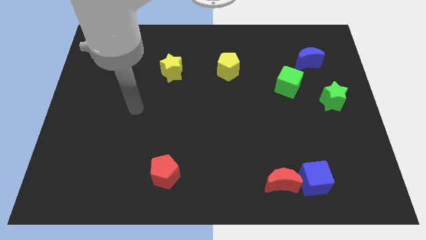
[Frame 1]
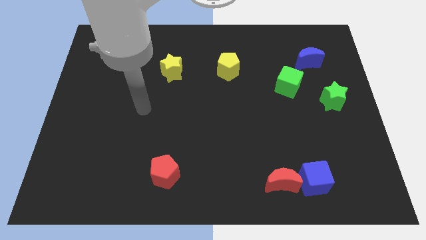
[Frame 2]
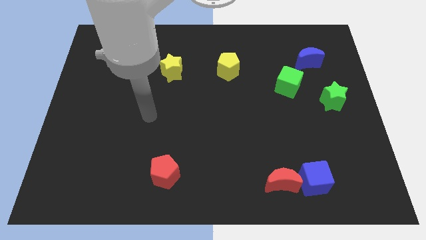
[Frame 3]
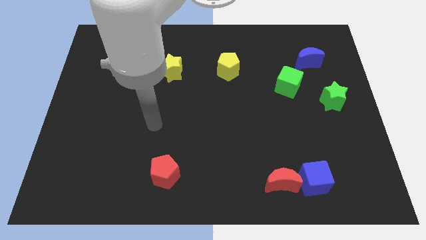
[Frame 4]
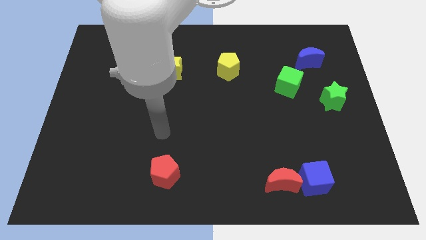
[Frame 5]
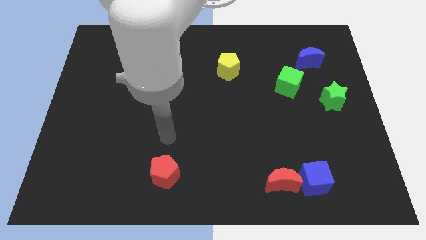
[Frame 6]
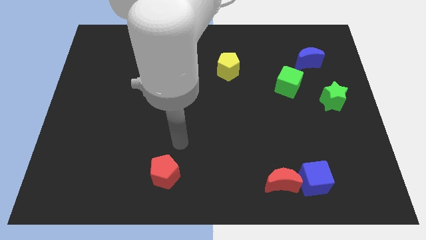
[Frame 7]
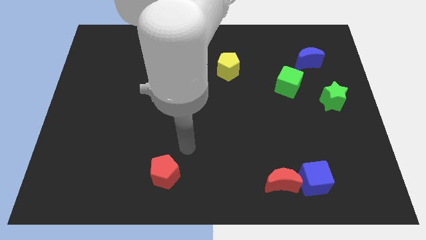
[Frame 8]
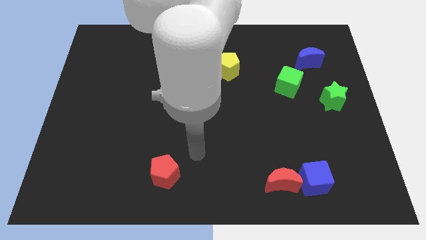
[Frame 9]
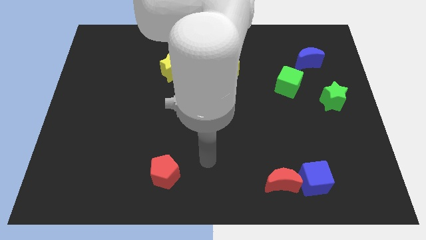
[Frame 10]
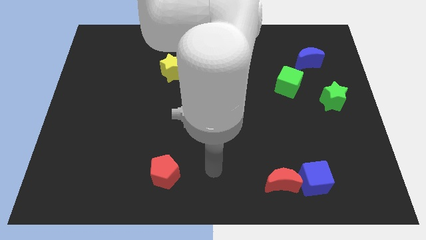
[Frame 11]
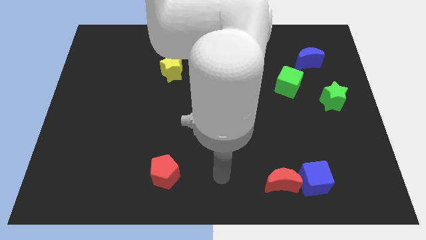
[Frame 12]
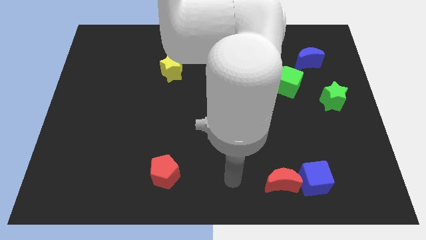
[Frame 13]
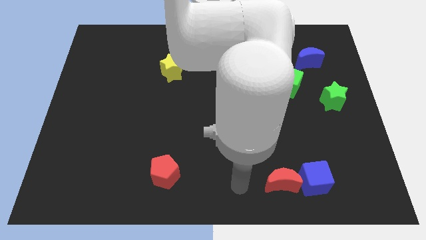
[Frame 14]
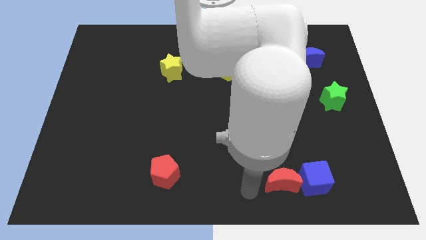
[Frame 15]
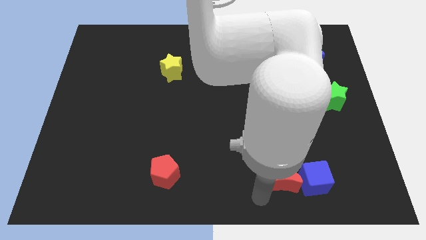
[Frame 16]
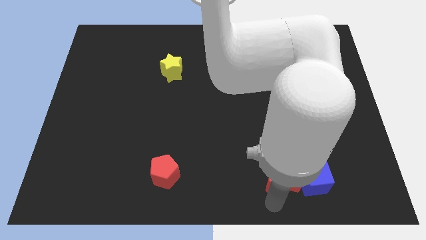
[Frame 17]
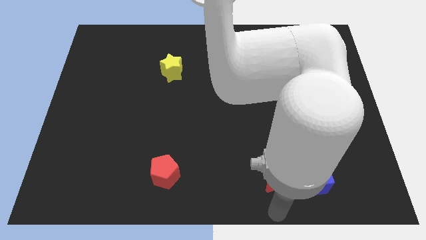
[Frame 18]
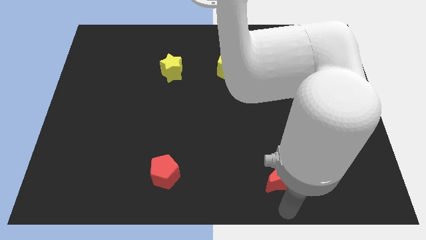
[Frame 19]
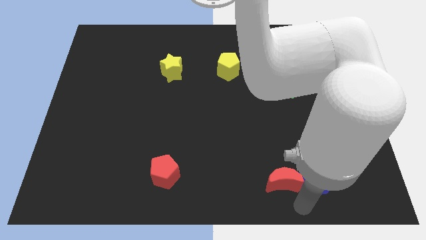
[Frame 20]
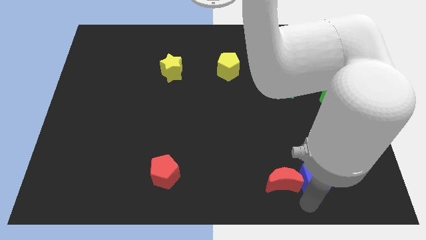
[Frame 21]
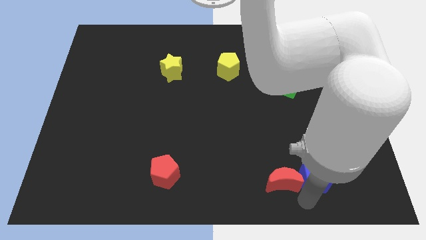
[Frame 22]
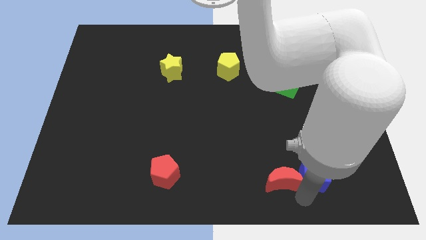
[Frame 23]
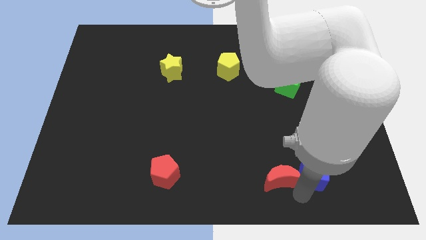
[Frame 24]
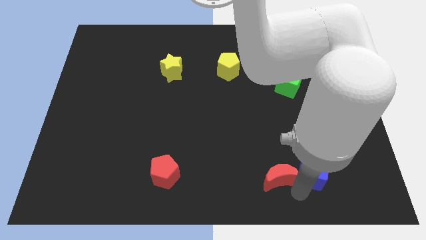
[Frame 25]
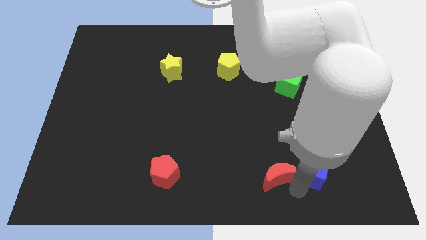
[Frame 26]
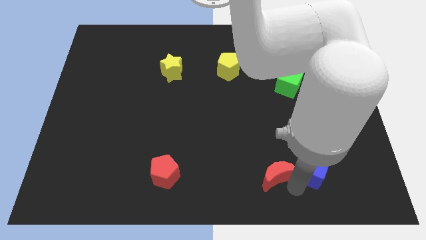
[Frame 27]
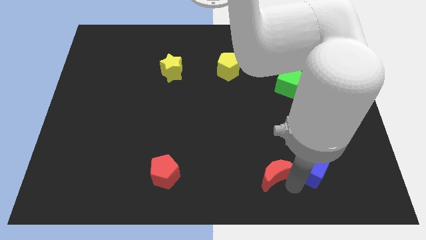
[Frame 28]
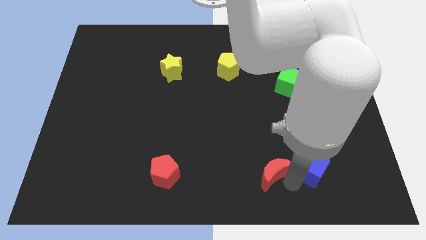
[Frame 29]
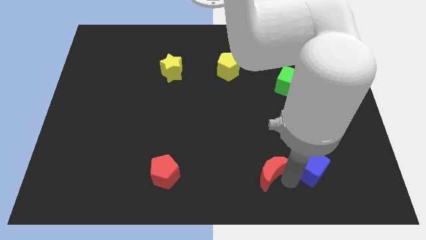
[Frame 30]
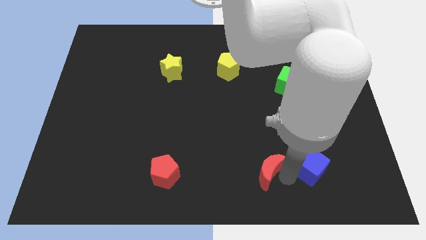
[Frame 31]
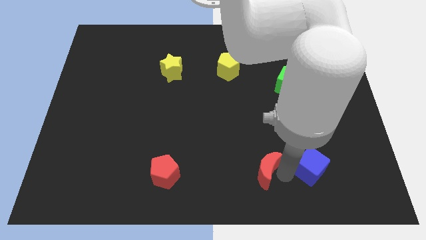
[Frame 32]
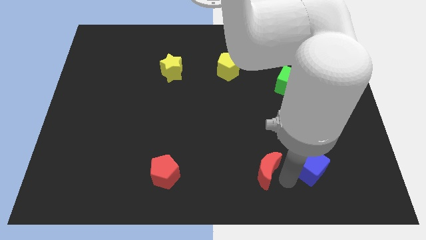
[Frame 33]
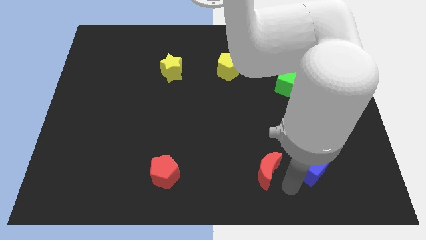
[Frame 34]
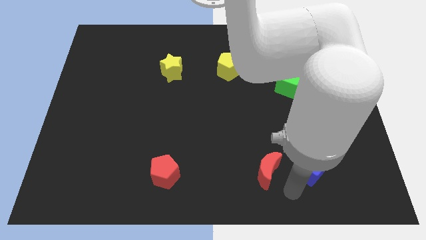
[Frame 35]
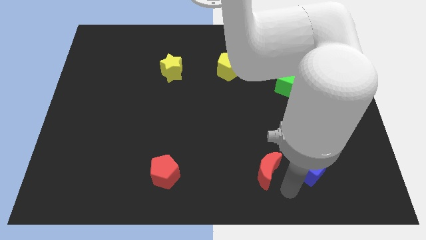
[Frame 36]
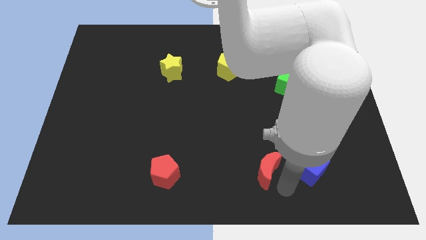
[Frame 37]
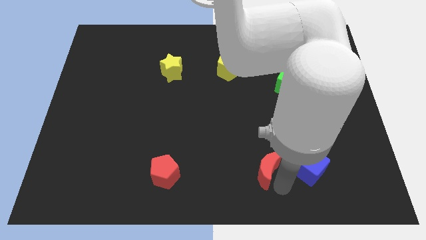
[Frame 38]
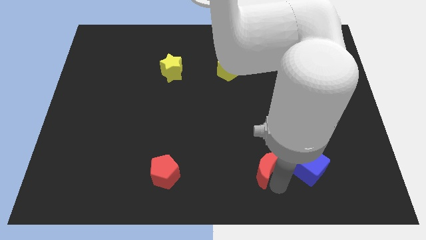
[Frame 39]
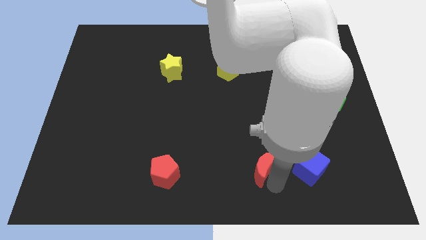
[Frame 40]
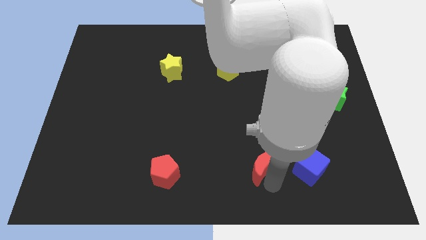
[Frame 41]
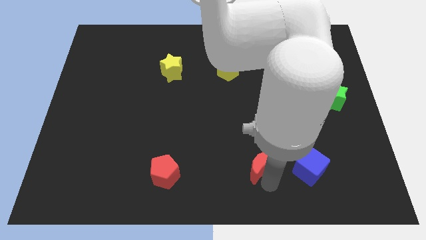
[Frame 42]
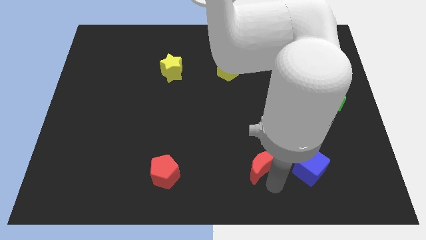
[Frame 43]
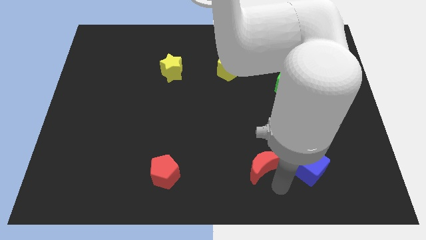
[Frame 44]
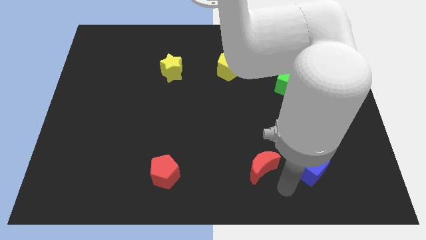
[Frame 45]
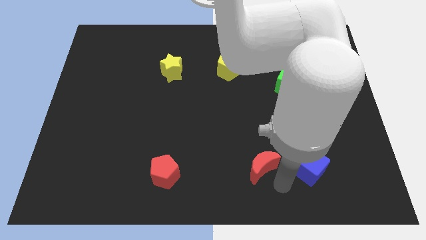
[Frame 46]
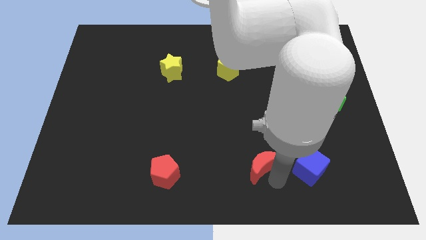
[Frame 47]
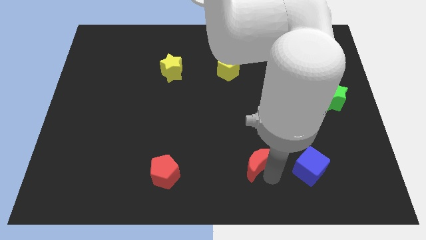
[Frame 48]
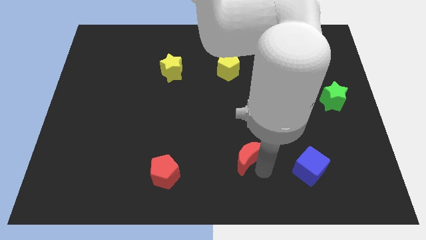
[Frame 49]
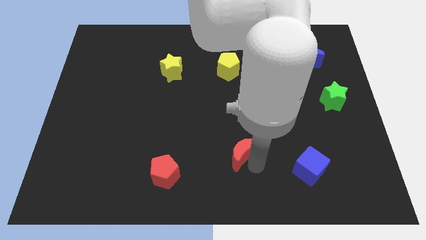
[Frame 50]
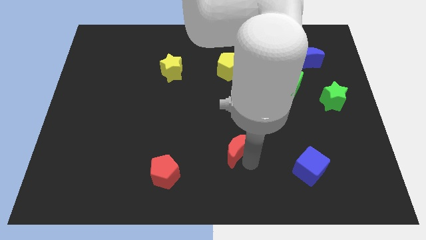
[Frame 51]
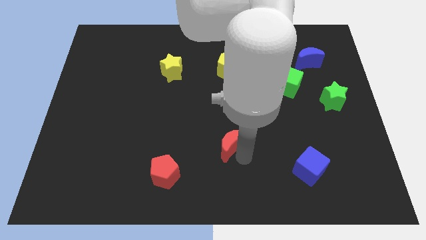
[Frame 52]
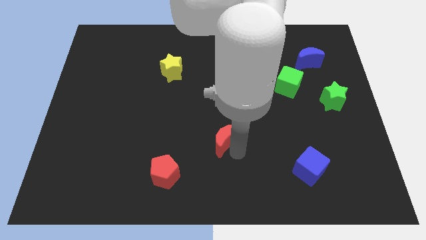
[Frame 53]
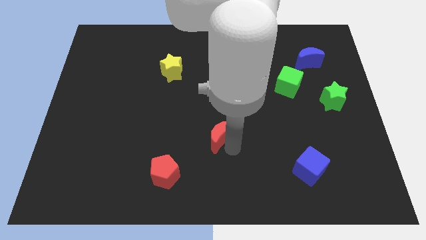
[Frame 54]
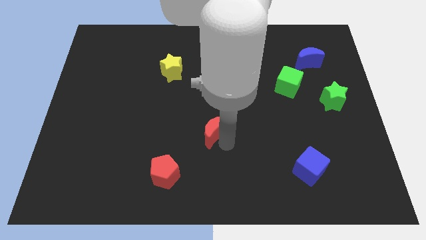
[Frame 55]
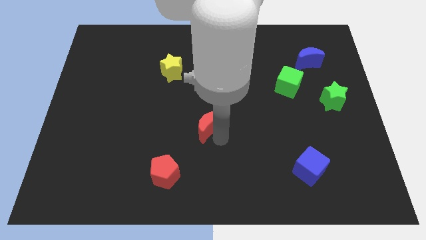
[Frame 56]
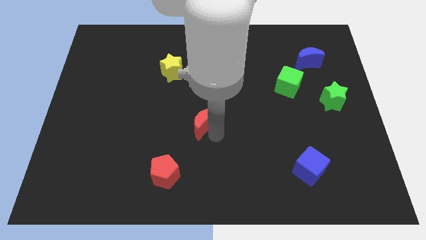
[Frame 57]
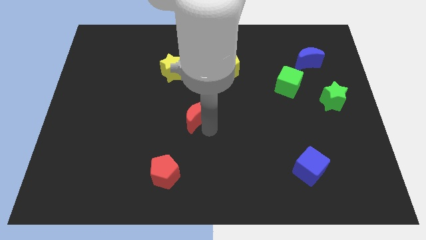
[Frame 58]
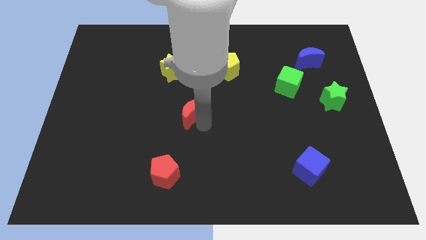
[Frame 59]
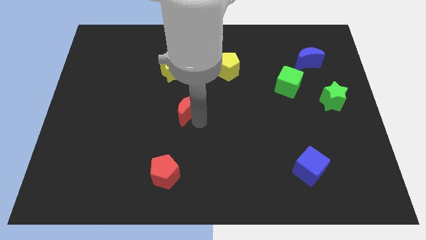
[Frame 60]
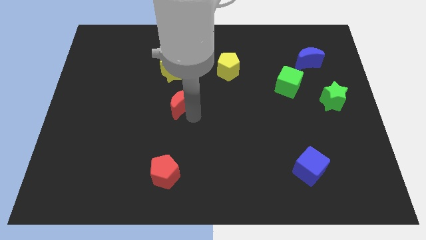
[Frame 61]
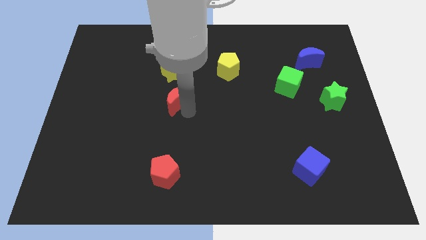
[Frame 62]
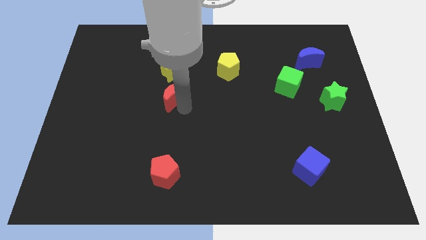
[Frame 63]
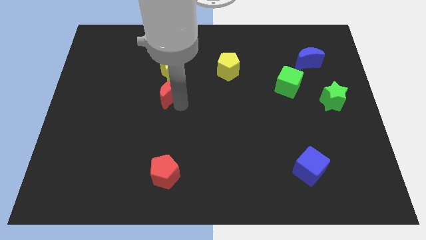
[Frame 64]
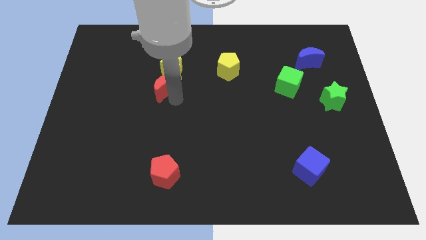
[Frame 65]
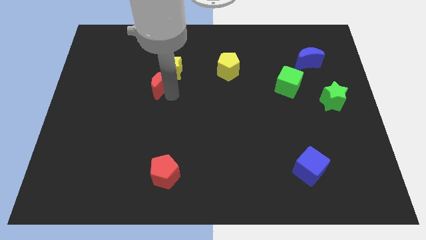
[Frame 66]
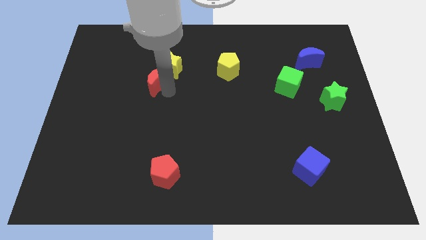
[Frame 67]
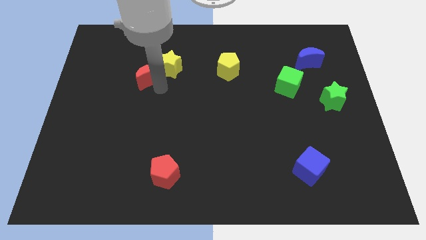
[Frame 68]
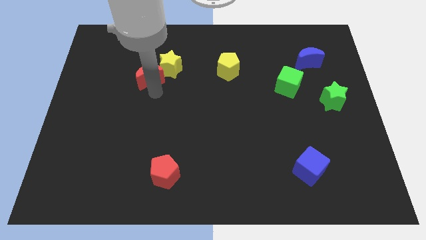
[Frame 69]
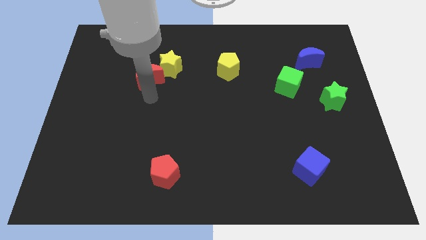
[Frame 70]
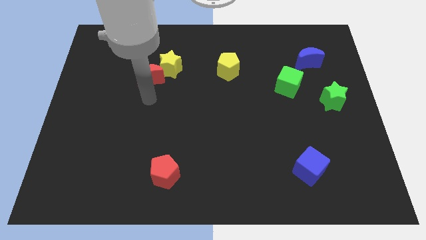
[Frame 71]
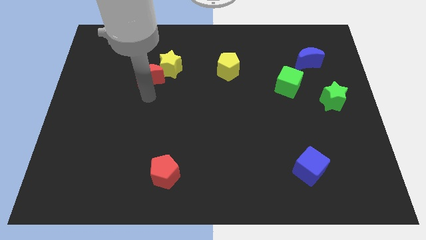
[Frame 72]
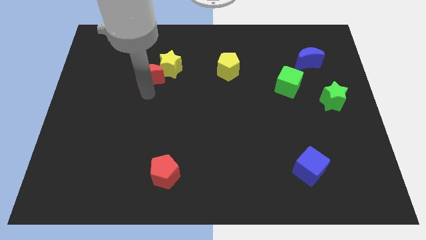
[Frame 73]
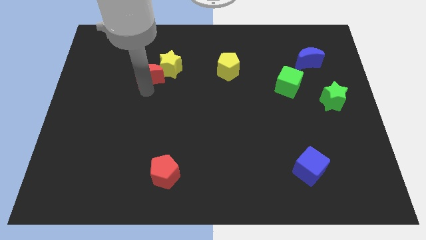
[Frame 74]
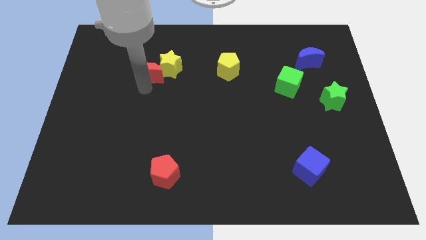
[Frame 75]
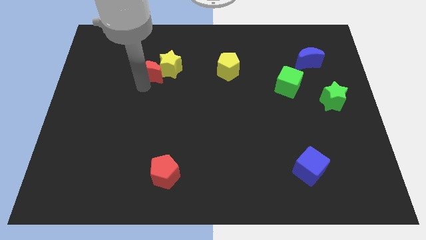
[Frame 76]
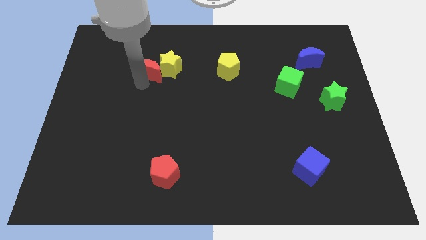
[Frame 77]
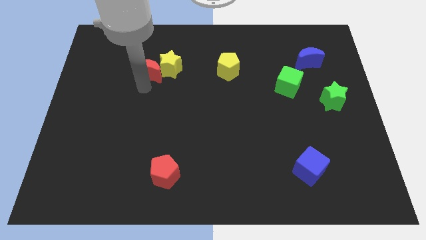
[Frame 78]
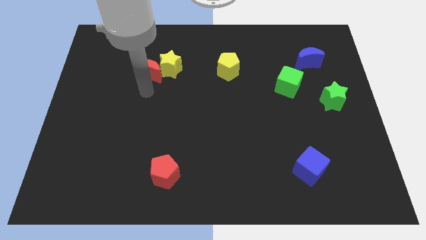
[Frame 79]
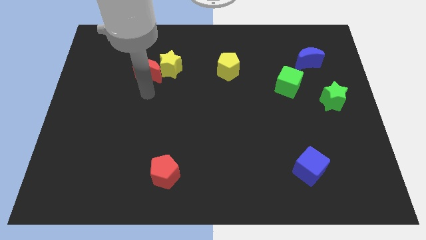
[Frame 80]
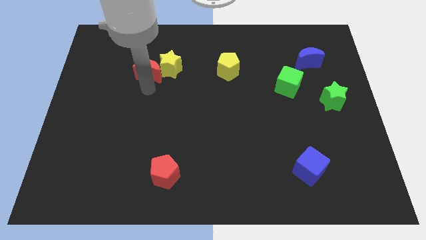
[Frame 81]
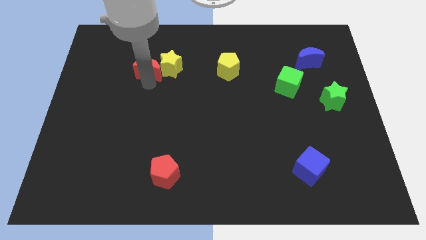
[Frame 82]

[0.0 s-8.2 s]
put the red moon to the top left side of the yellow star
